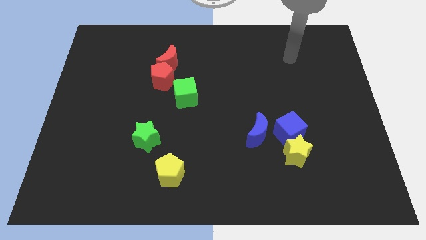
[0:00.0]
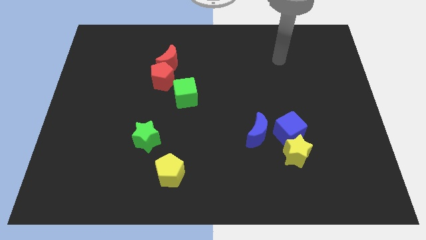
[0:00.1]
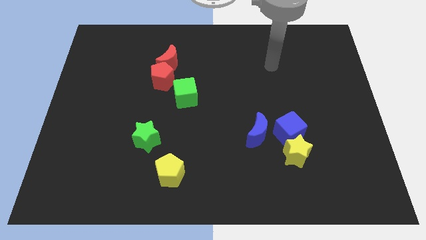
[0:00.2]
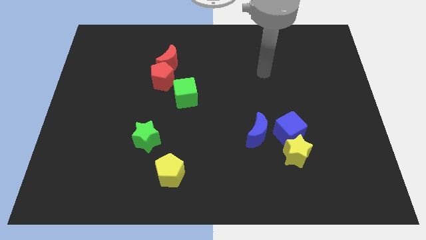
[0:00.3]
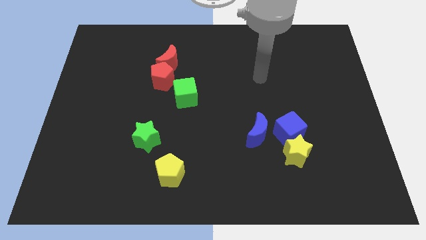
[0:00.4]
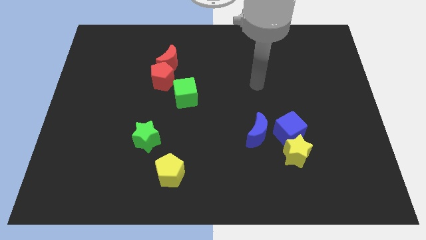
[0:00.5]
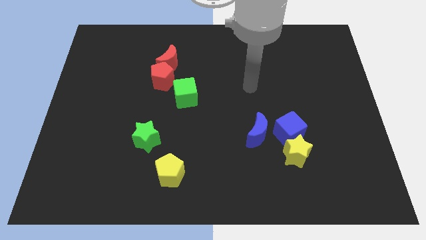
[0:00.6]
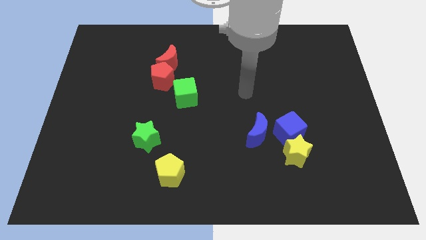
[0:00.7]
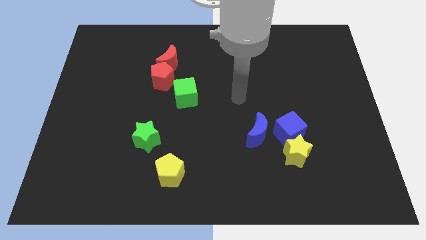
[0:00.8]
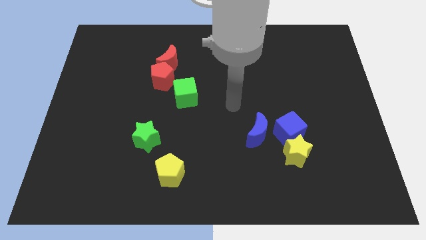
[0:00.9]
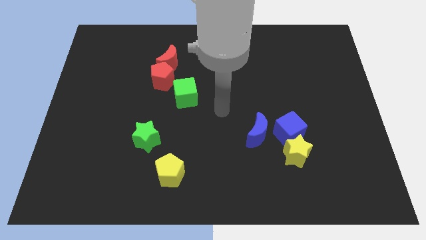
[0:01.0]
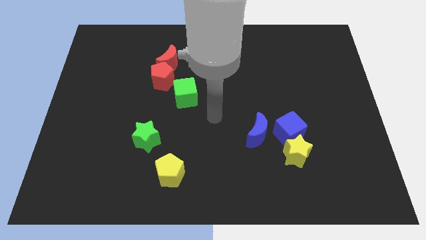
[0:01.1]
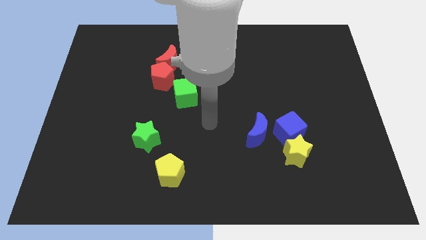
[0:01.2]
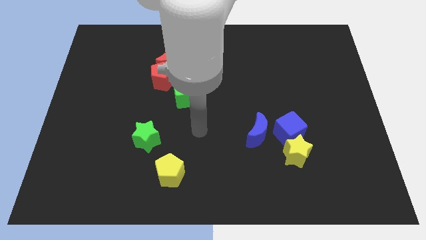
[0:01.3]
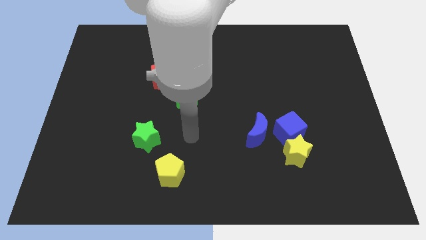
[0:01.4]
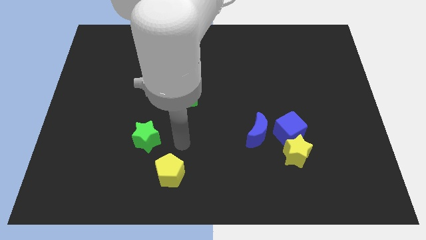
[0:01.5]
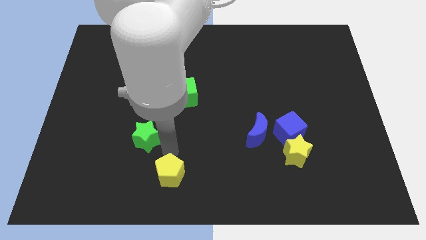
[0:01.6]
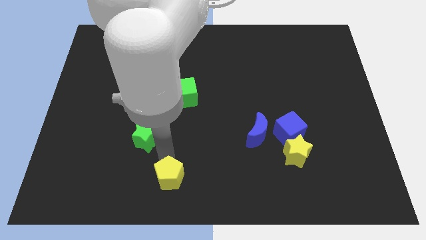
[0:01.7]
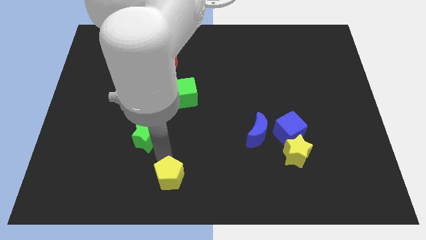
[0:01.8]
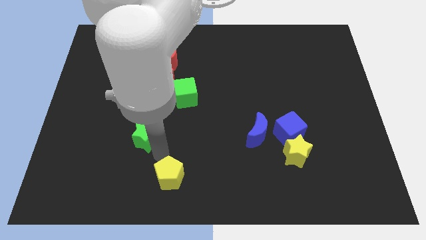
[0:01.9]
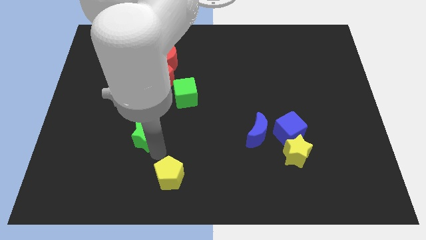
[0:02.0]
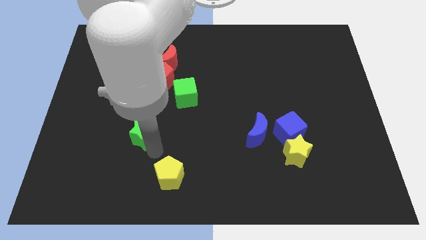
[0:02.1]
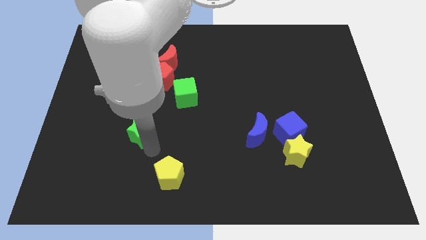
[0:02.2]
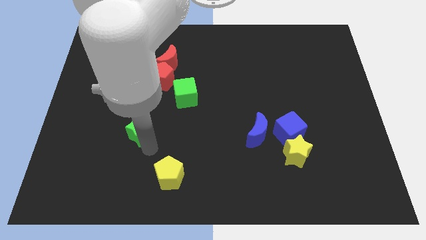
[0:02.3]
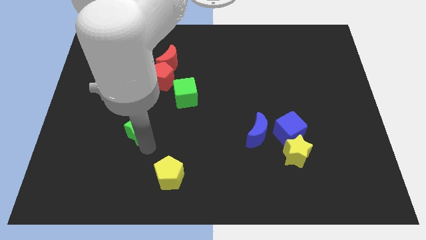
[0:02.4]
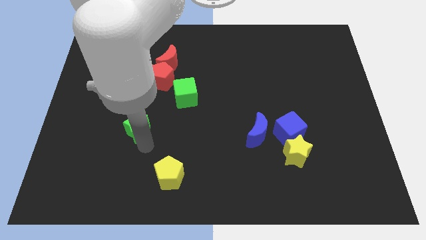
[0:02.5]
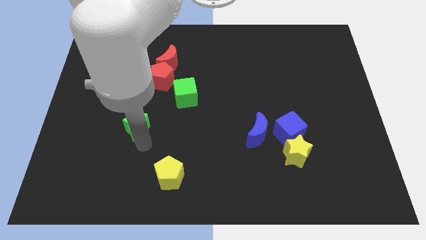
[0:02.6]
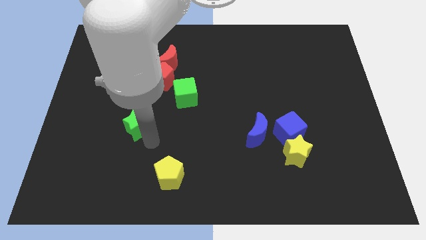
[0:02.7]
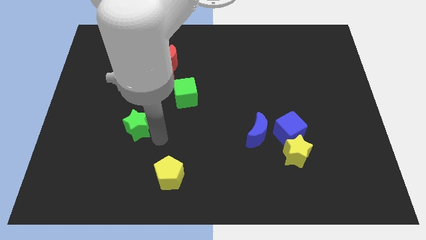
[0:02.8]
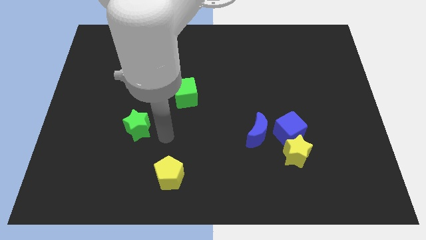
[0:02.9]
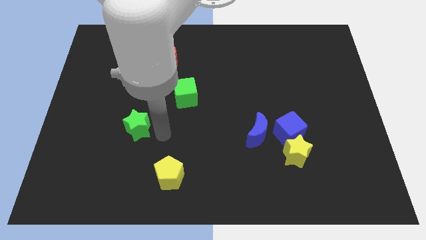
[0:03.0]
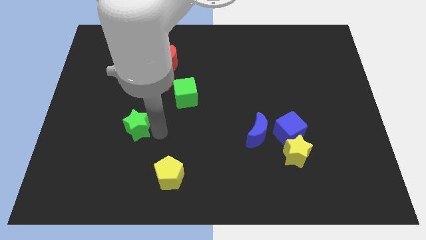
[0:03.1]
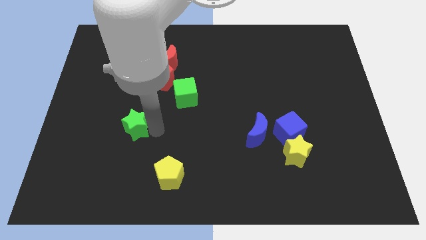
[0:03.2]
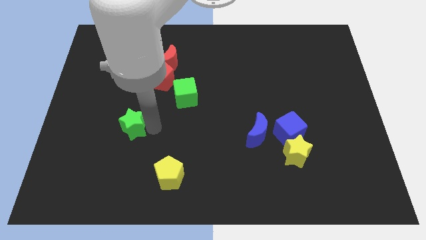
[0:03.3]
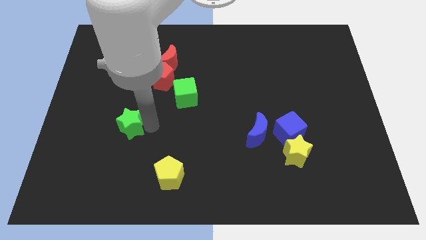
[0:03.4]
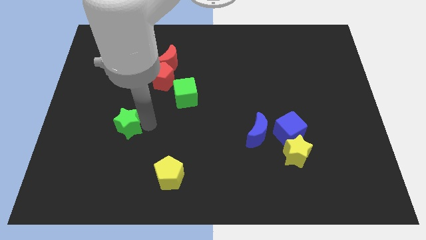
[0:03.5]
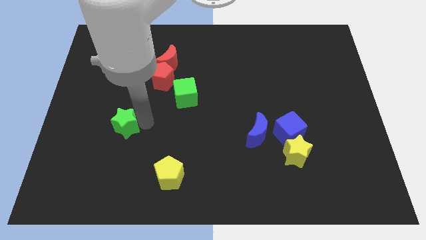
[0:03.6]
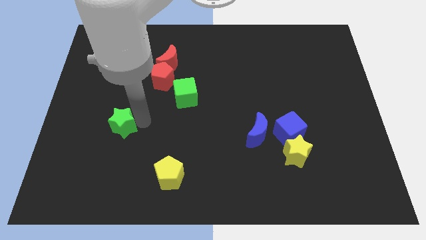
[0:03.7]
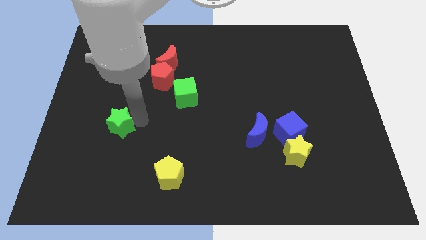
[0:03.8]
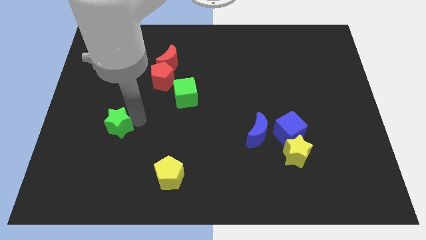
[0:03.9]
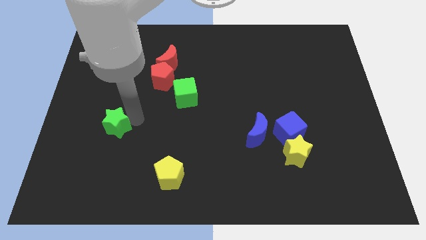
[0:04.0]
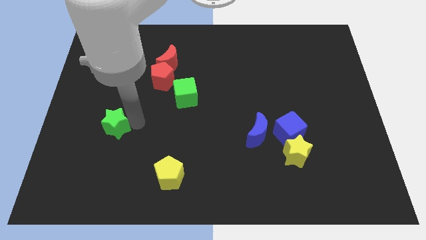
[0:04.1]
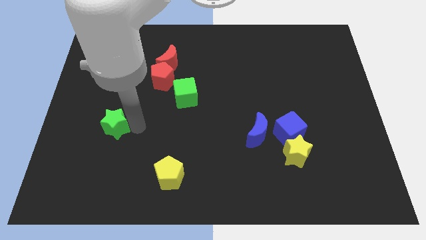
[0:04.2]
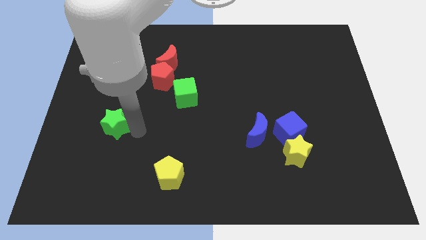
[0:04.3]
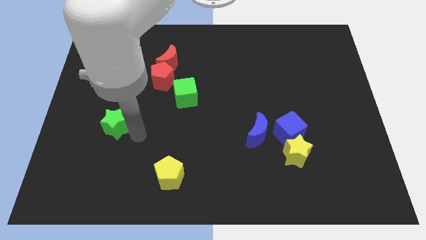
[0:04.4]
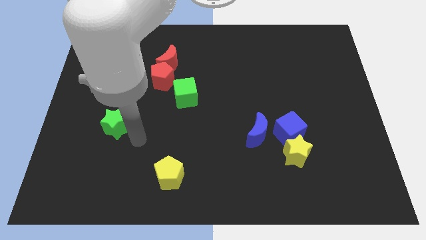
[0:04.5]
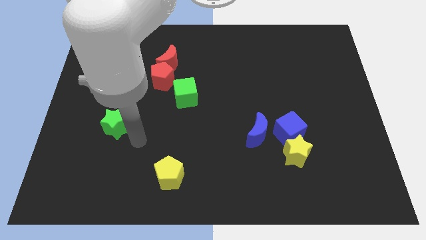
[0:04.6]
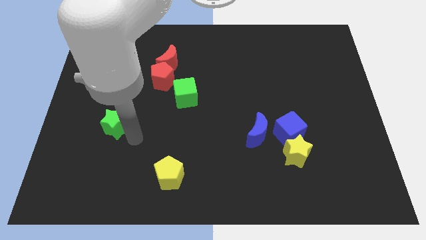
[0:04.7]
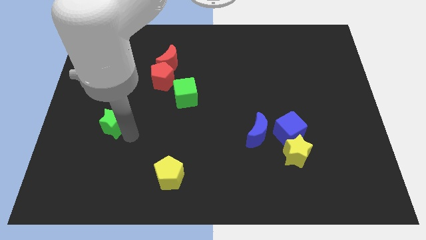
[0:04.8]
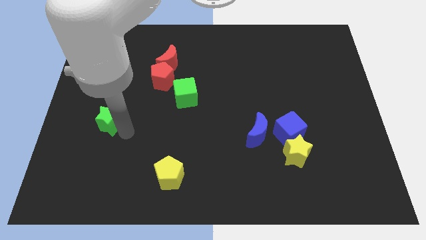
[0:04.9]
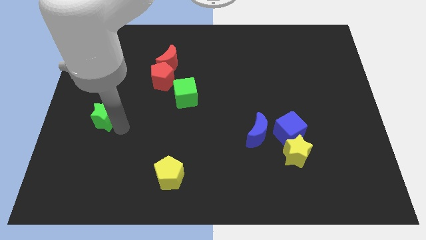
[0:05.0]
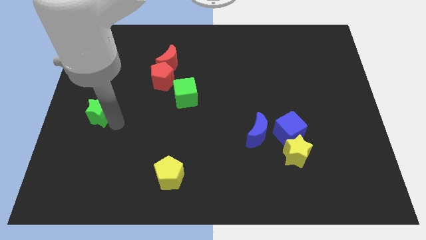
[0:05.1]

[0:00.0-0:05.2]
move the green star to the left side of the board

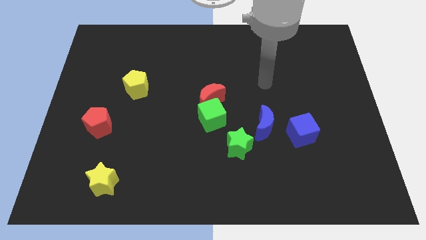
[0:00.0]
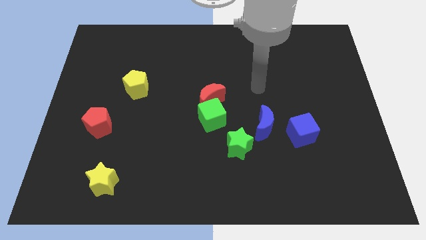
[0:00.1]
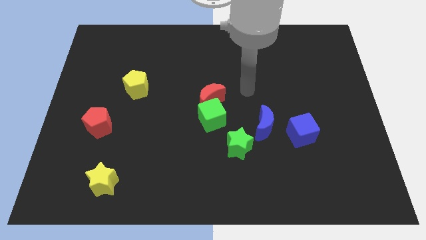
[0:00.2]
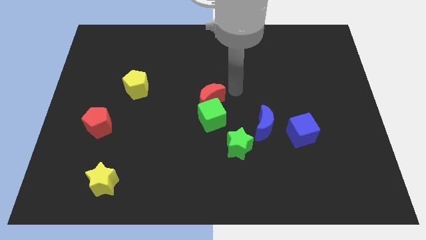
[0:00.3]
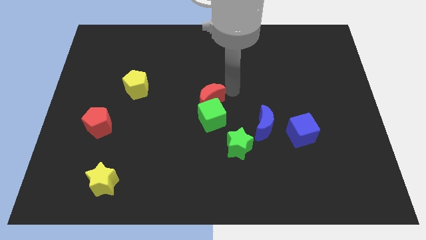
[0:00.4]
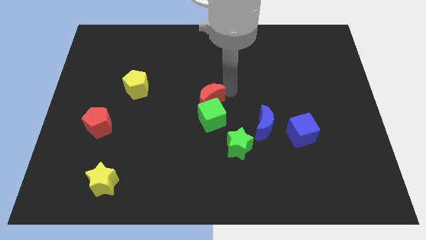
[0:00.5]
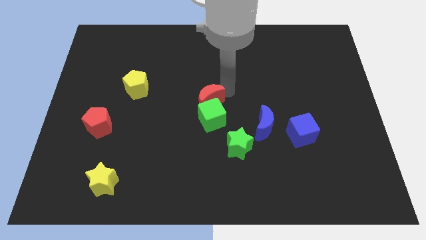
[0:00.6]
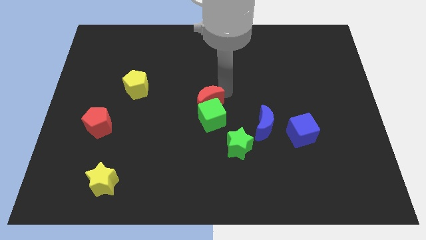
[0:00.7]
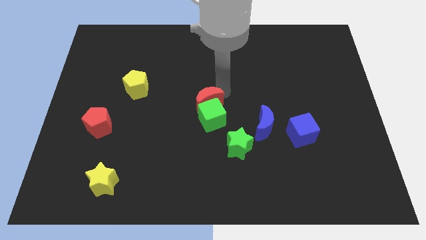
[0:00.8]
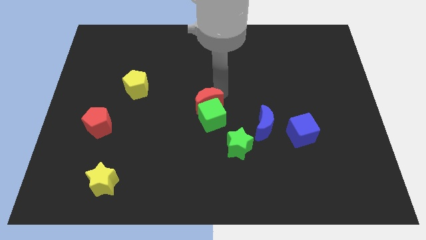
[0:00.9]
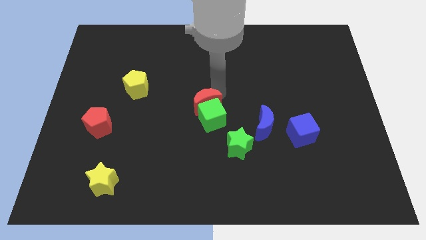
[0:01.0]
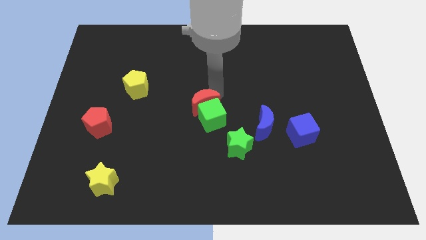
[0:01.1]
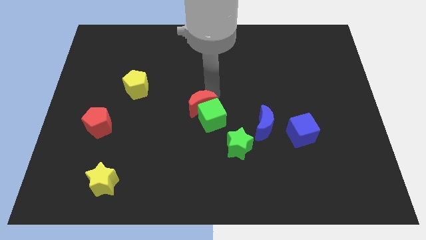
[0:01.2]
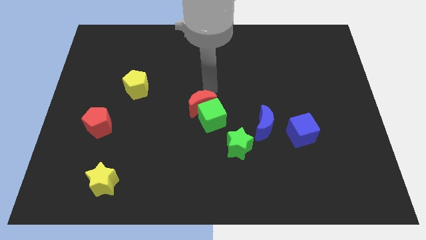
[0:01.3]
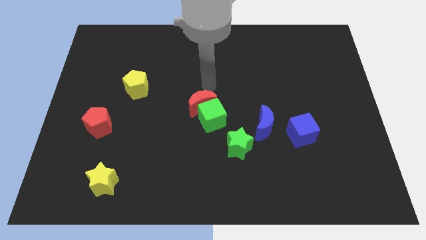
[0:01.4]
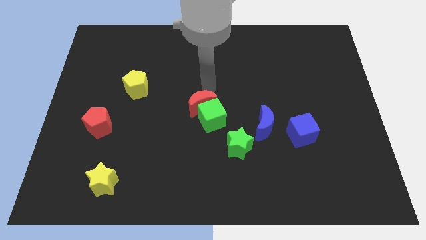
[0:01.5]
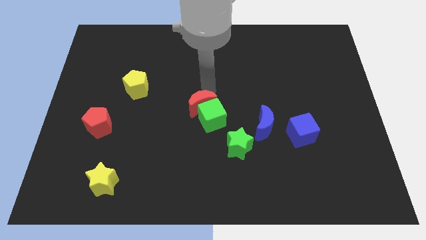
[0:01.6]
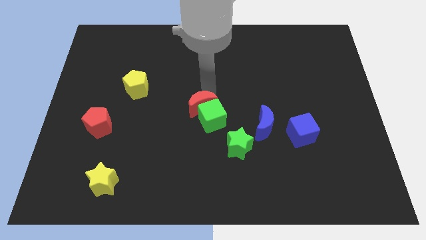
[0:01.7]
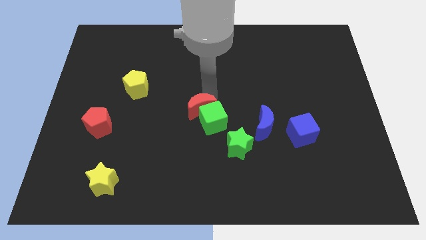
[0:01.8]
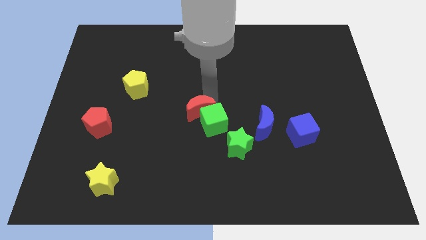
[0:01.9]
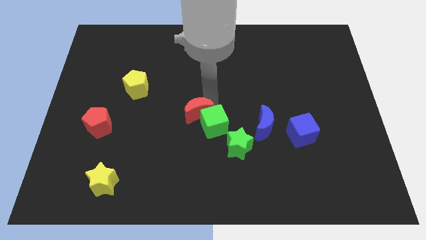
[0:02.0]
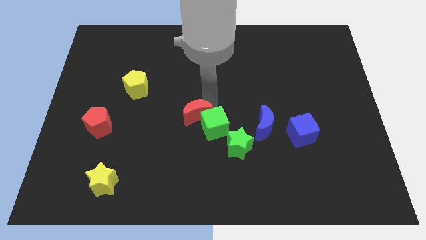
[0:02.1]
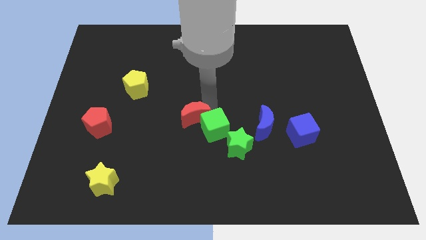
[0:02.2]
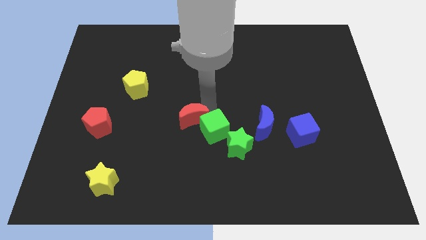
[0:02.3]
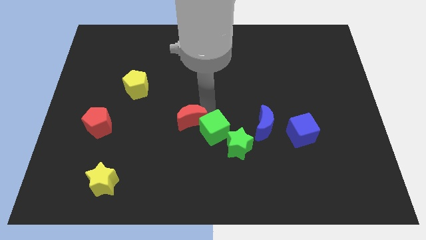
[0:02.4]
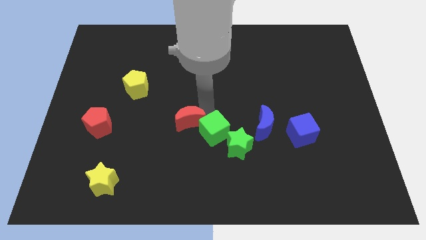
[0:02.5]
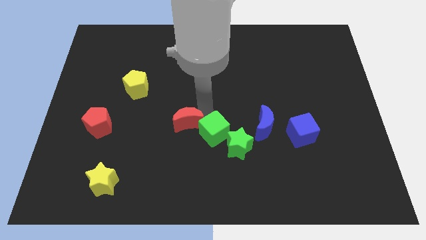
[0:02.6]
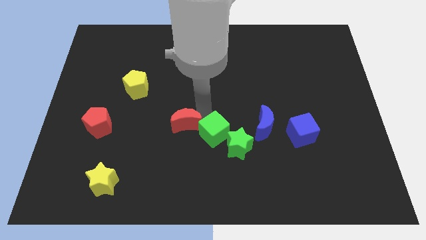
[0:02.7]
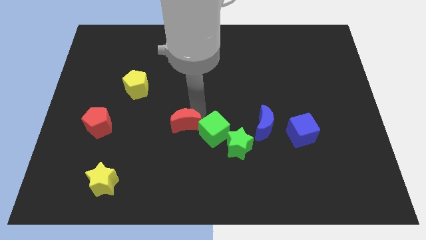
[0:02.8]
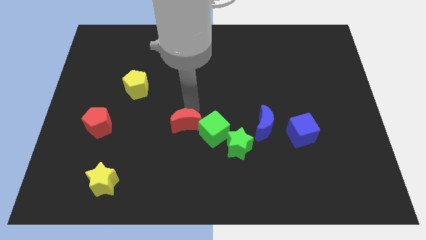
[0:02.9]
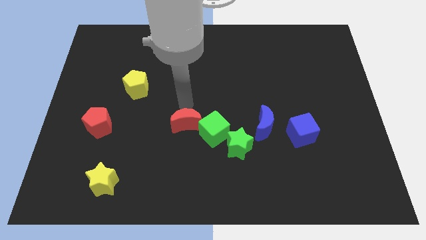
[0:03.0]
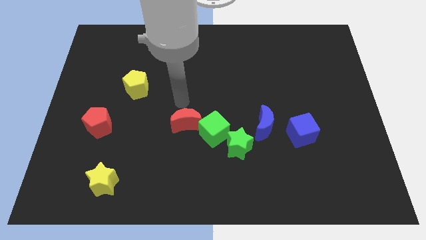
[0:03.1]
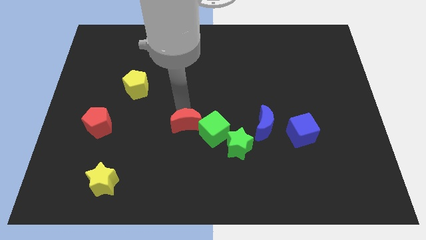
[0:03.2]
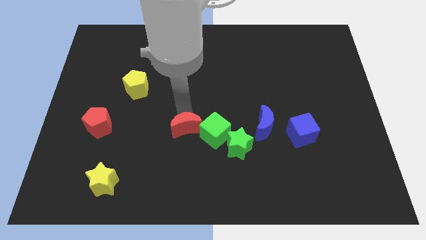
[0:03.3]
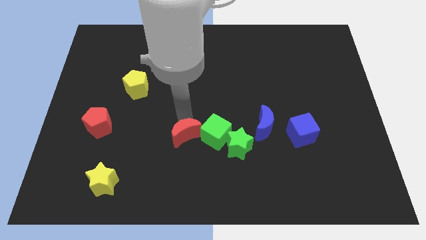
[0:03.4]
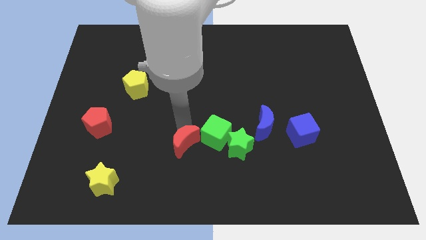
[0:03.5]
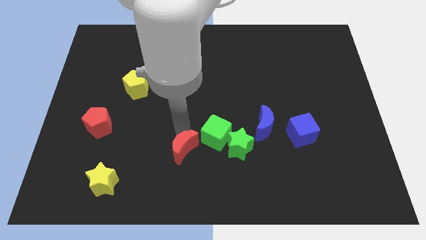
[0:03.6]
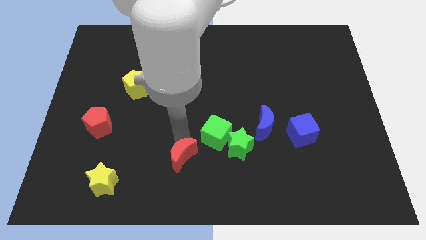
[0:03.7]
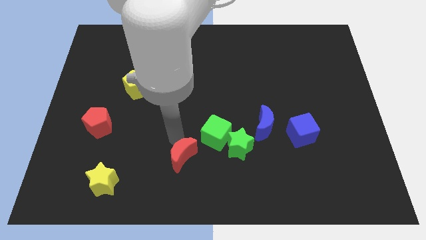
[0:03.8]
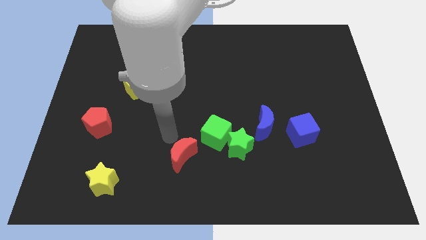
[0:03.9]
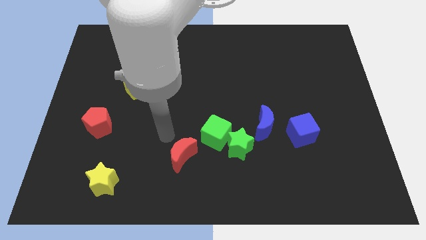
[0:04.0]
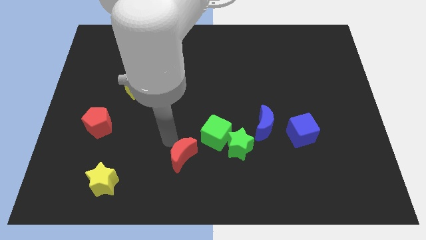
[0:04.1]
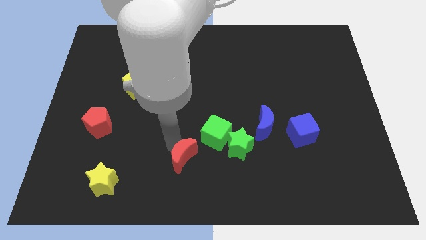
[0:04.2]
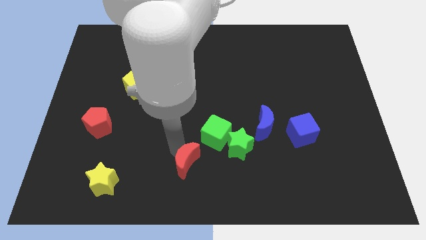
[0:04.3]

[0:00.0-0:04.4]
put the red moon to the bottom side
